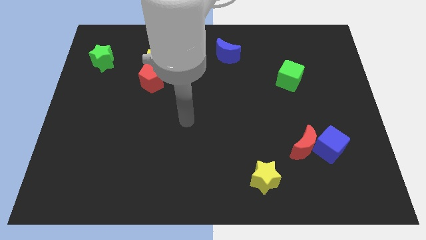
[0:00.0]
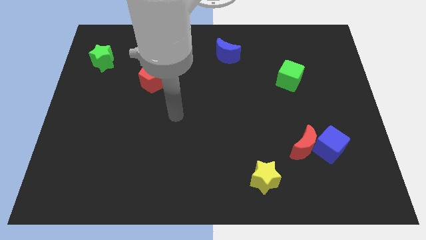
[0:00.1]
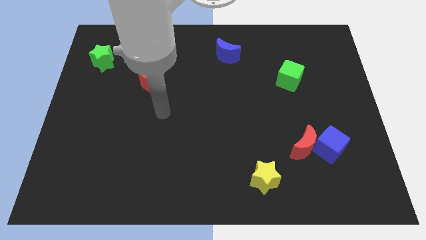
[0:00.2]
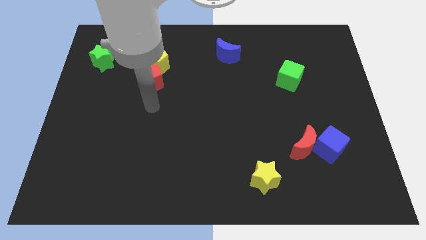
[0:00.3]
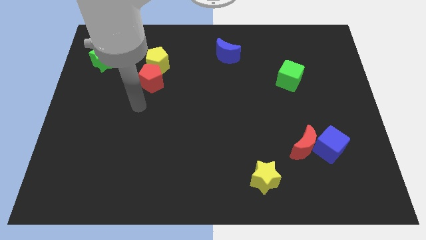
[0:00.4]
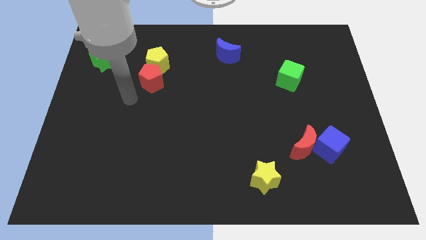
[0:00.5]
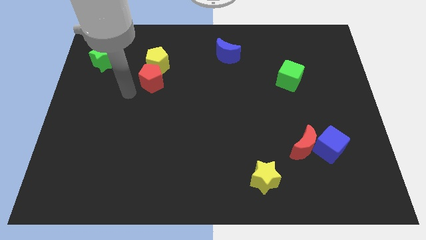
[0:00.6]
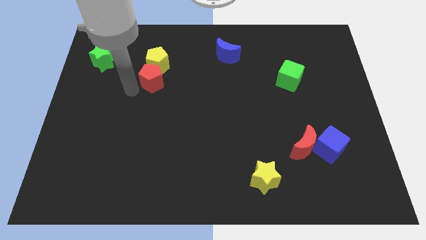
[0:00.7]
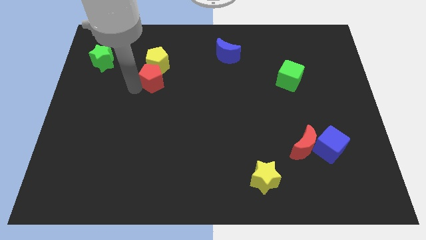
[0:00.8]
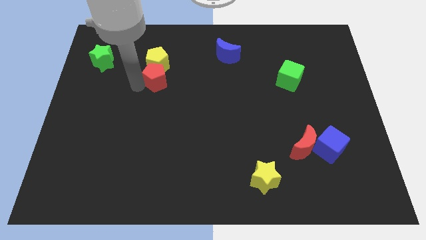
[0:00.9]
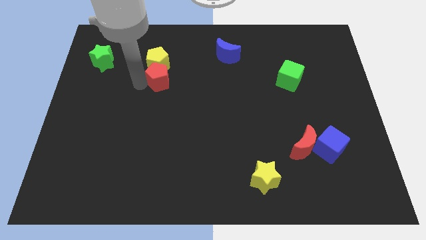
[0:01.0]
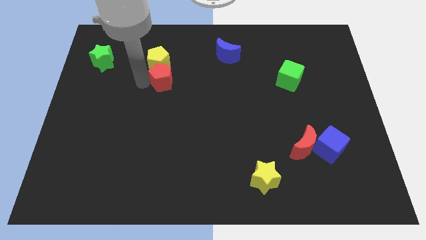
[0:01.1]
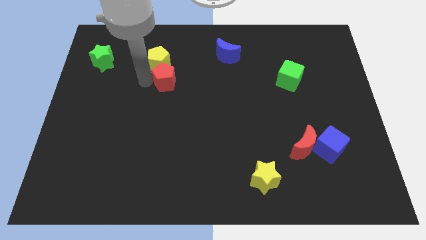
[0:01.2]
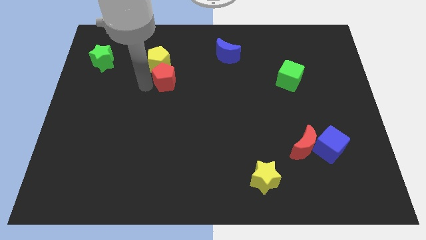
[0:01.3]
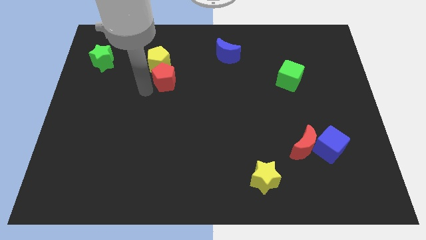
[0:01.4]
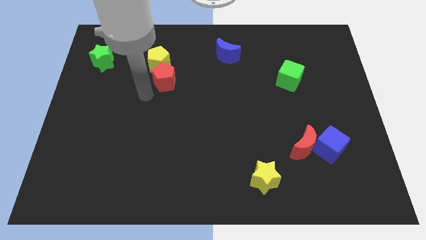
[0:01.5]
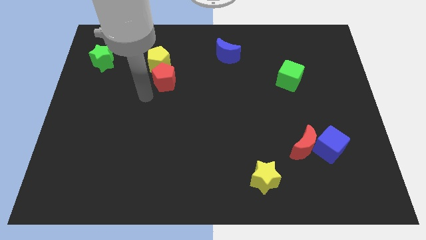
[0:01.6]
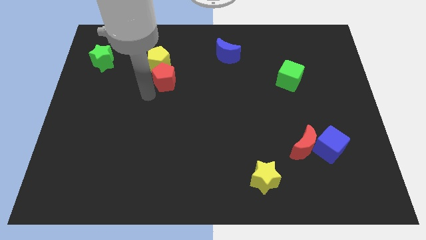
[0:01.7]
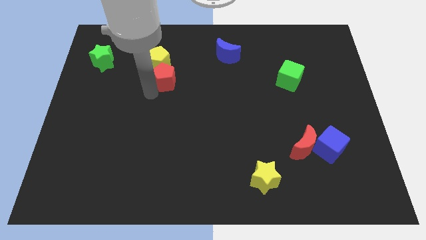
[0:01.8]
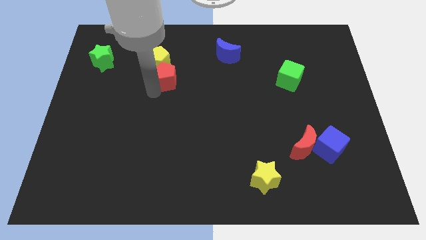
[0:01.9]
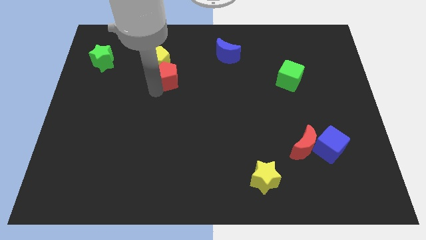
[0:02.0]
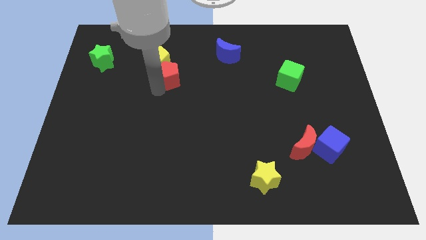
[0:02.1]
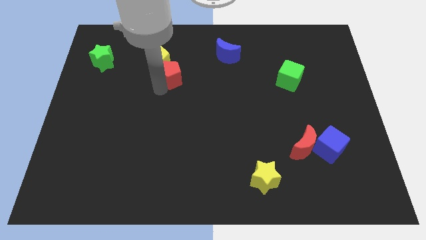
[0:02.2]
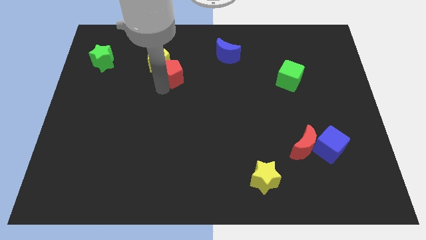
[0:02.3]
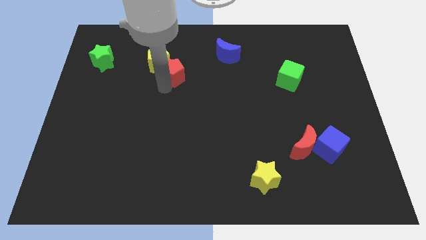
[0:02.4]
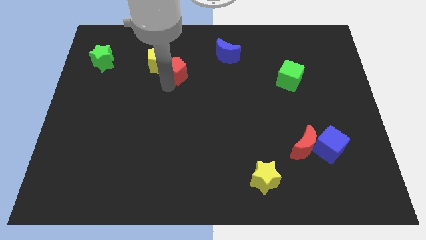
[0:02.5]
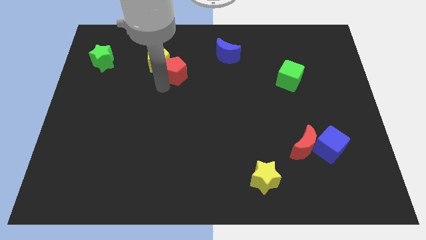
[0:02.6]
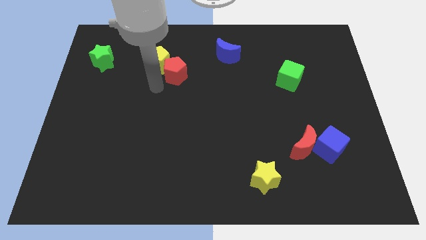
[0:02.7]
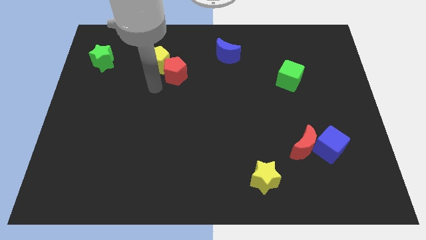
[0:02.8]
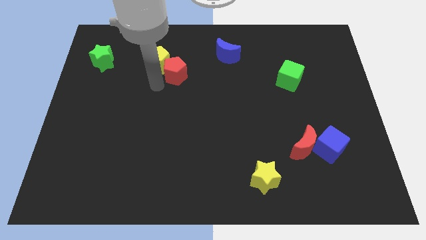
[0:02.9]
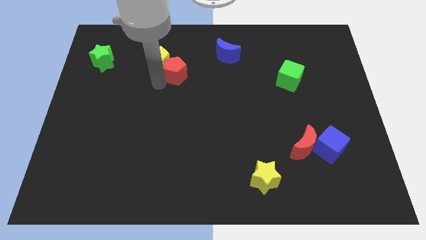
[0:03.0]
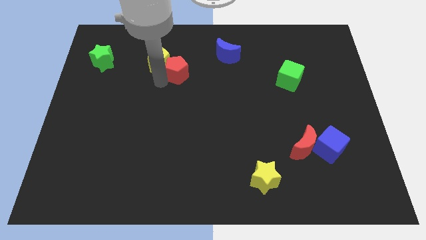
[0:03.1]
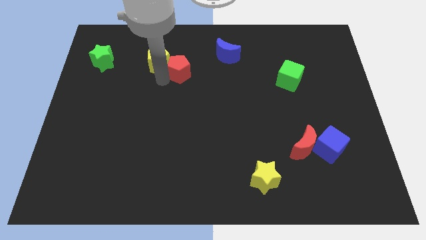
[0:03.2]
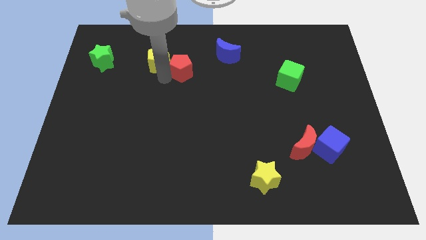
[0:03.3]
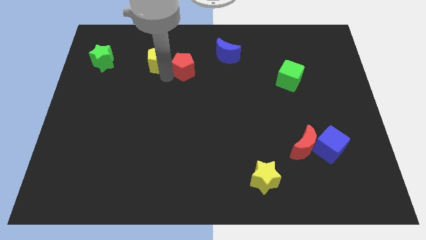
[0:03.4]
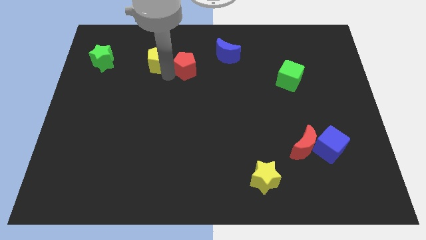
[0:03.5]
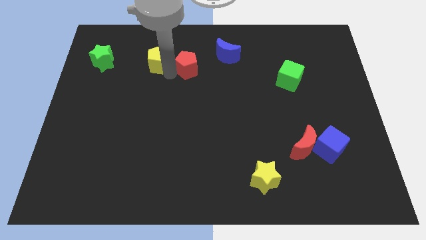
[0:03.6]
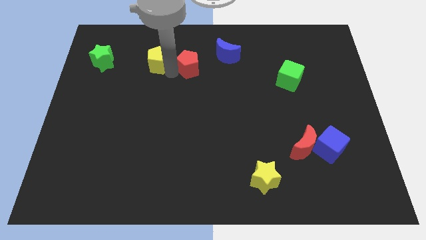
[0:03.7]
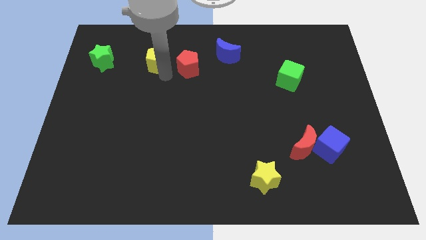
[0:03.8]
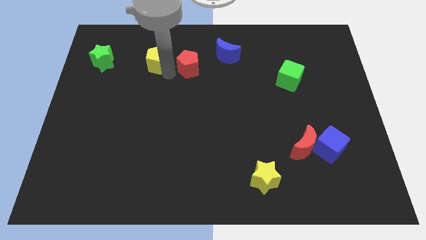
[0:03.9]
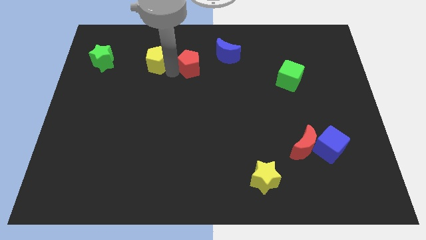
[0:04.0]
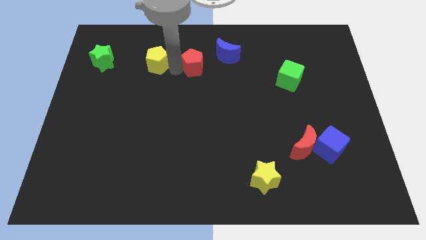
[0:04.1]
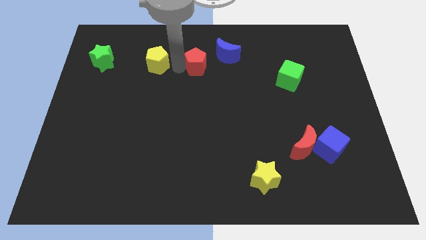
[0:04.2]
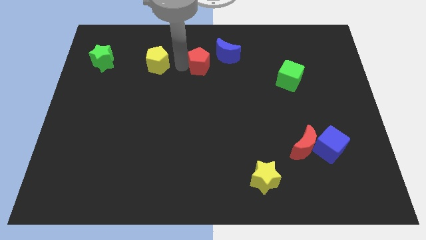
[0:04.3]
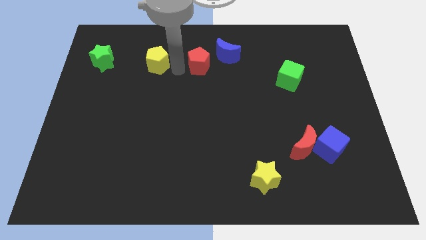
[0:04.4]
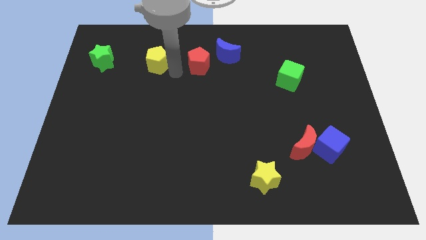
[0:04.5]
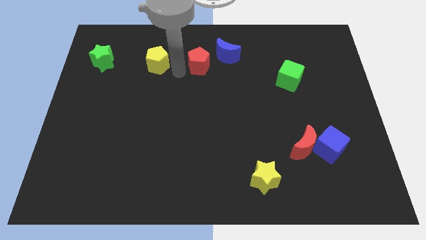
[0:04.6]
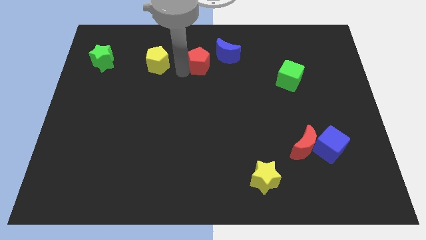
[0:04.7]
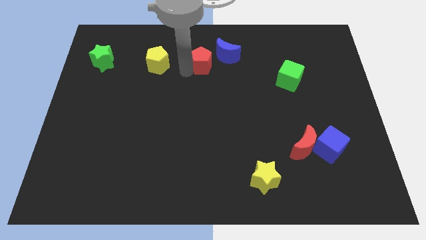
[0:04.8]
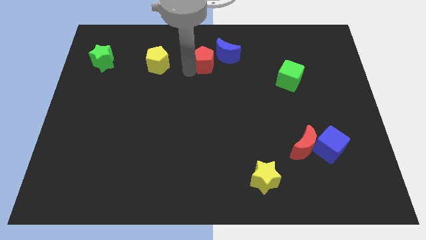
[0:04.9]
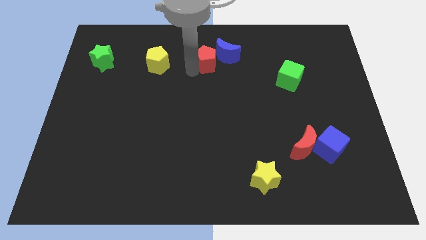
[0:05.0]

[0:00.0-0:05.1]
move the red pentagon close to the blue moon

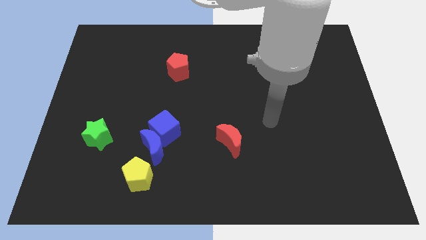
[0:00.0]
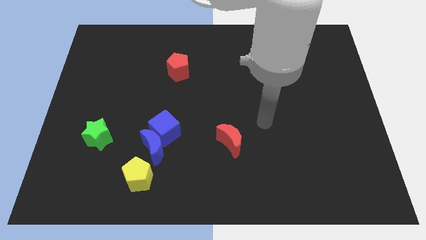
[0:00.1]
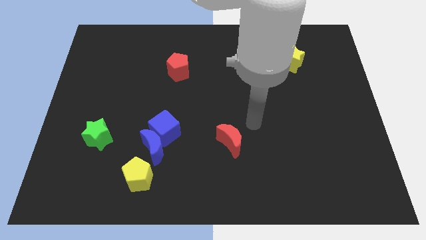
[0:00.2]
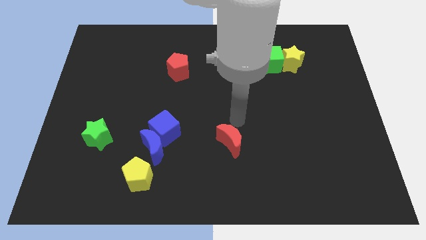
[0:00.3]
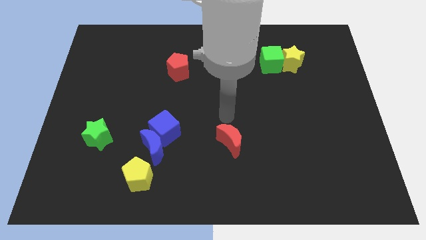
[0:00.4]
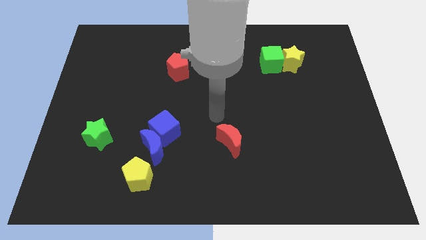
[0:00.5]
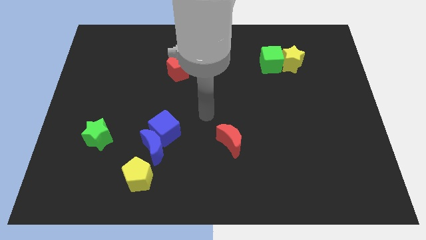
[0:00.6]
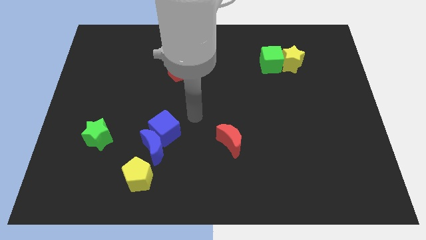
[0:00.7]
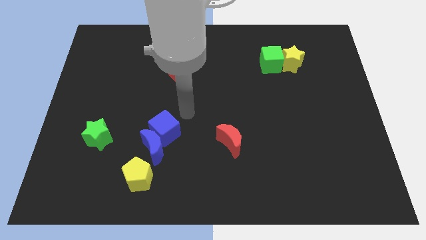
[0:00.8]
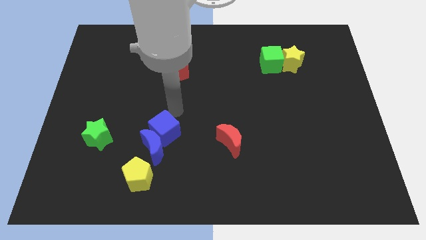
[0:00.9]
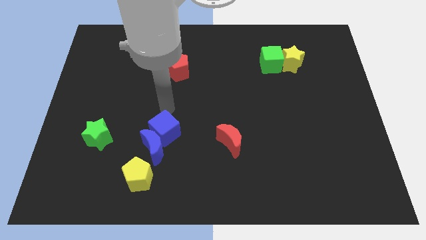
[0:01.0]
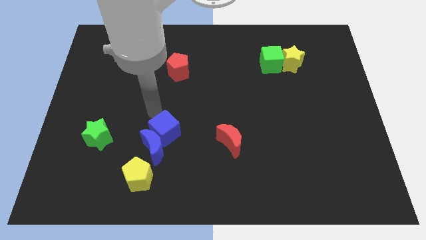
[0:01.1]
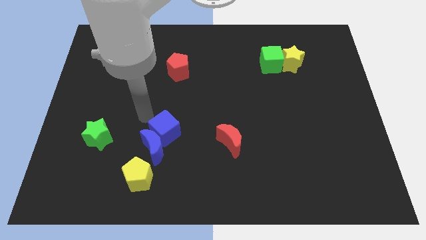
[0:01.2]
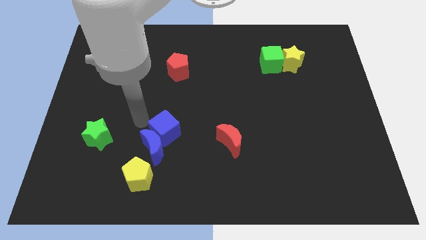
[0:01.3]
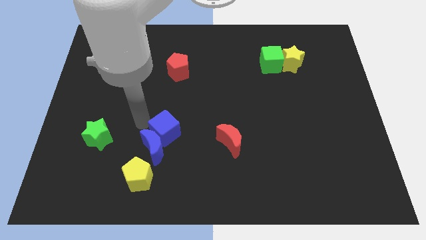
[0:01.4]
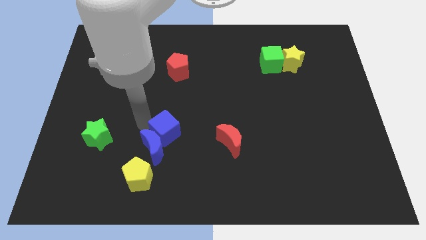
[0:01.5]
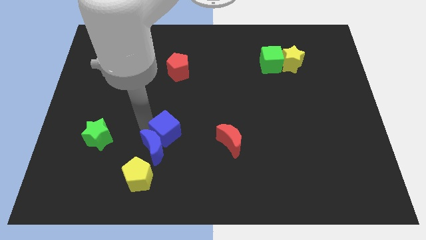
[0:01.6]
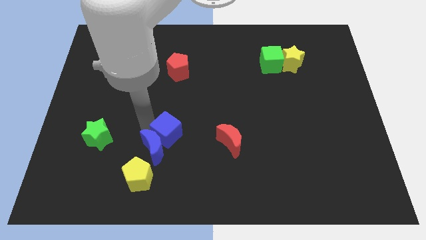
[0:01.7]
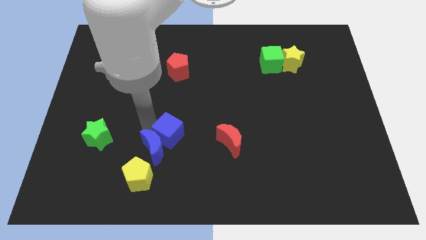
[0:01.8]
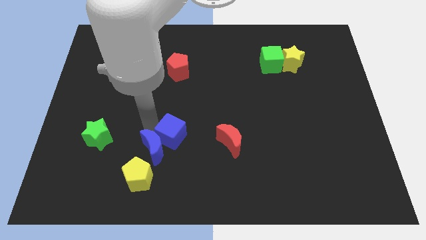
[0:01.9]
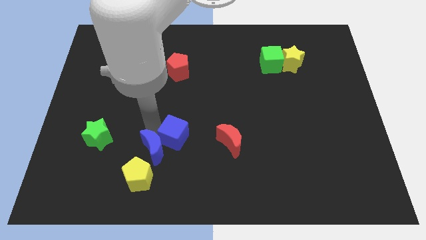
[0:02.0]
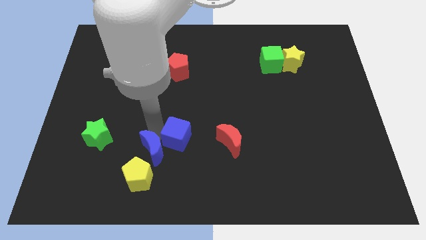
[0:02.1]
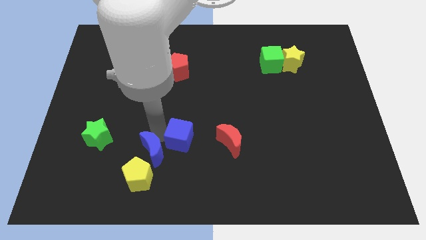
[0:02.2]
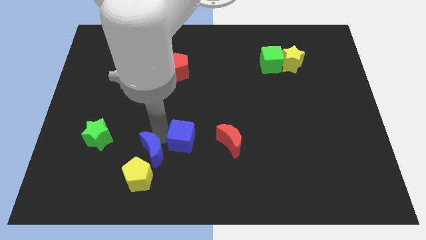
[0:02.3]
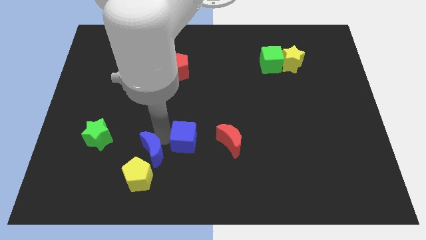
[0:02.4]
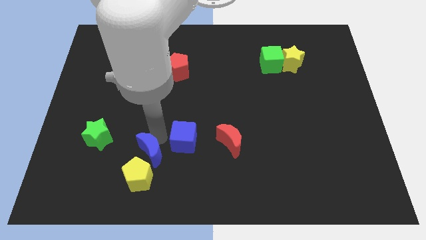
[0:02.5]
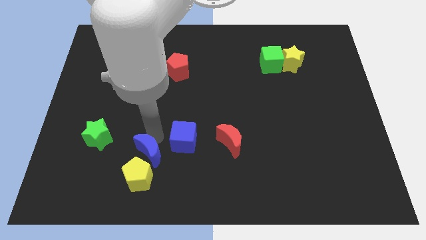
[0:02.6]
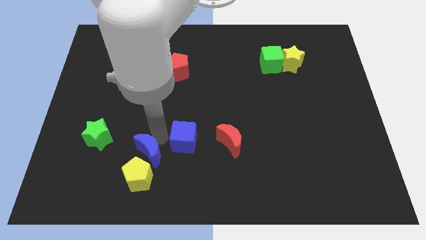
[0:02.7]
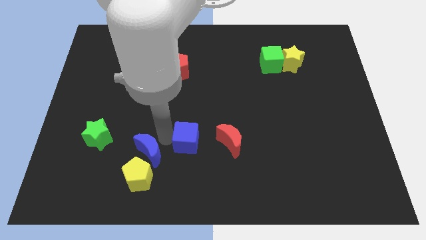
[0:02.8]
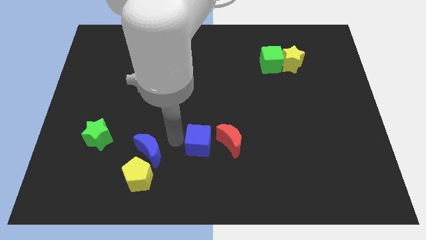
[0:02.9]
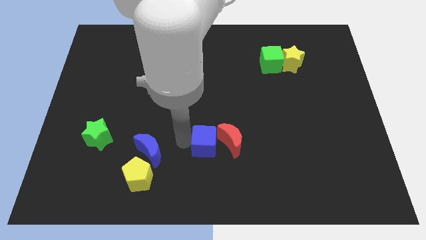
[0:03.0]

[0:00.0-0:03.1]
push the blue cube to the red moon
